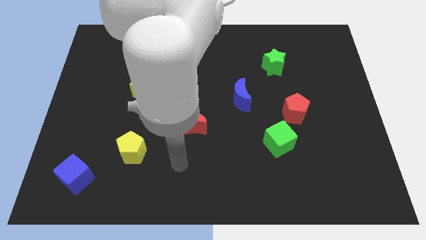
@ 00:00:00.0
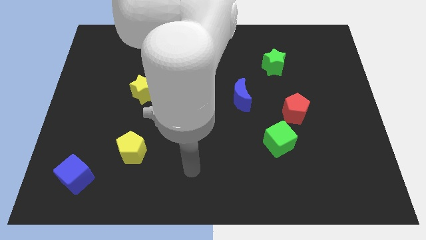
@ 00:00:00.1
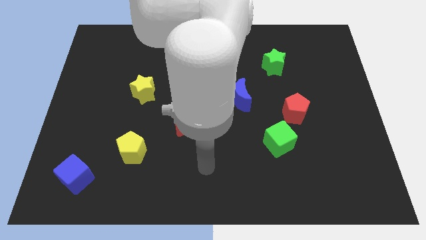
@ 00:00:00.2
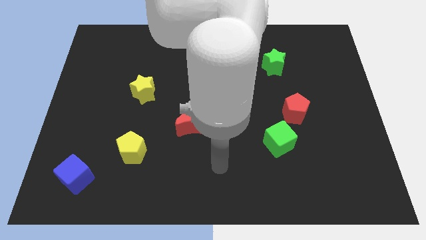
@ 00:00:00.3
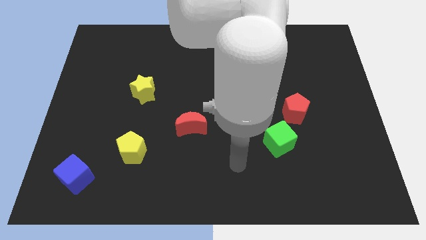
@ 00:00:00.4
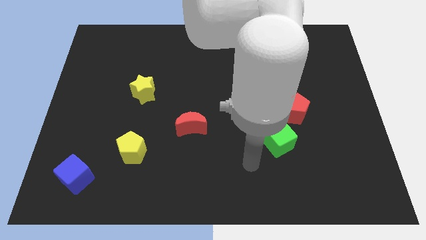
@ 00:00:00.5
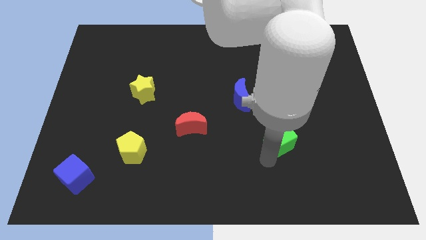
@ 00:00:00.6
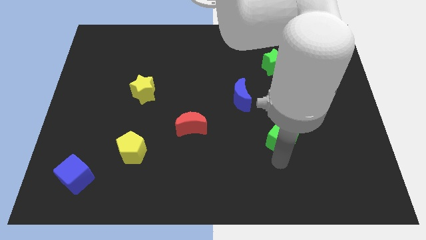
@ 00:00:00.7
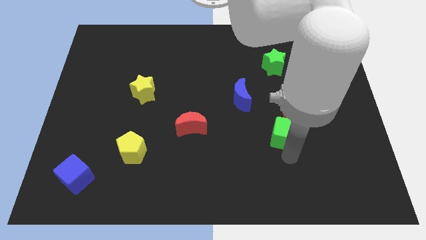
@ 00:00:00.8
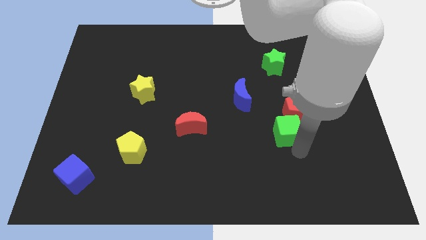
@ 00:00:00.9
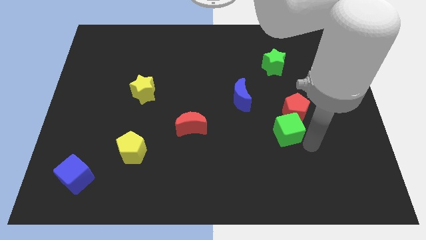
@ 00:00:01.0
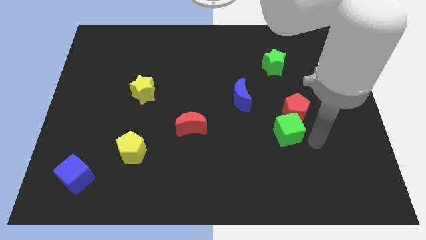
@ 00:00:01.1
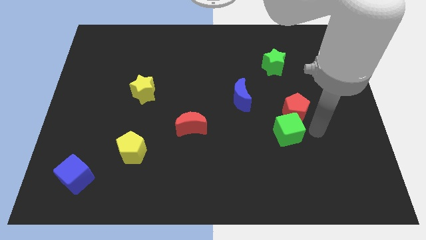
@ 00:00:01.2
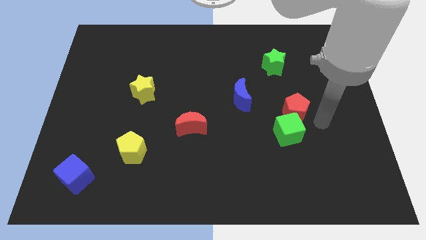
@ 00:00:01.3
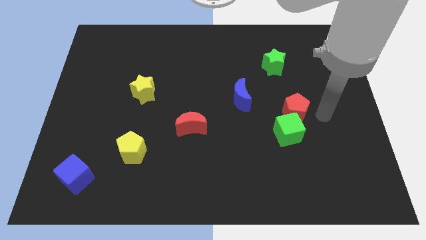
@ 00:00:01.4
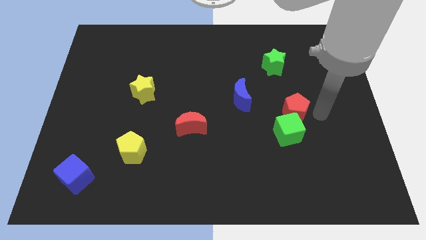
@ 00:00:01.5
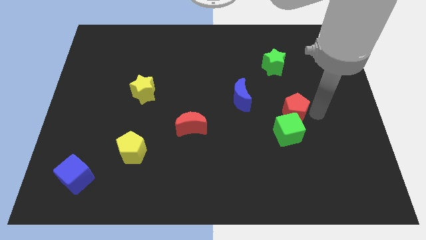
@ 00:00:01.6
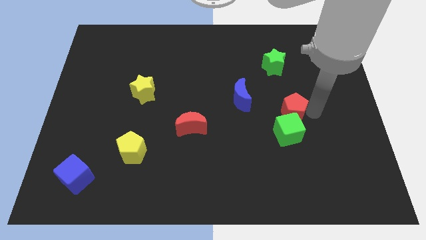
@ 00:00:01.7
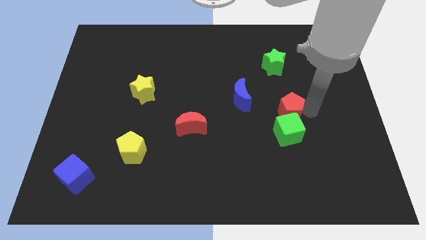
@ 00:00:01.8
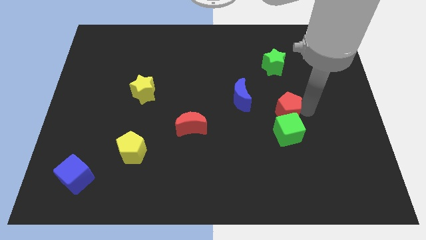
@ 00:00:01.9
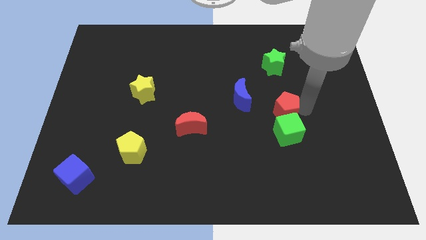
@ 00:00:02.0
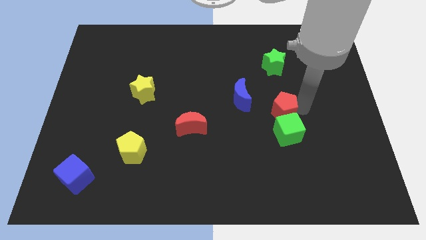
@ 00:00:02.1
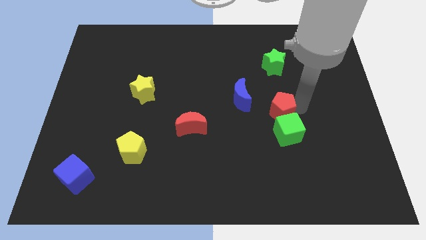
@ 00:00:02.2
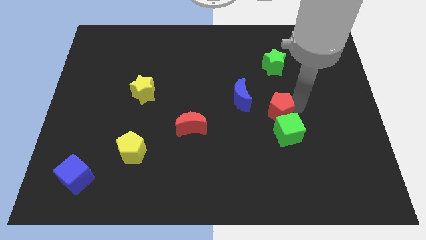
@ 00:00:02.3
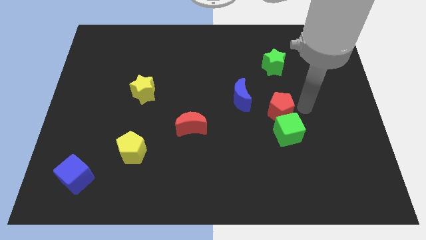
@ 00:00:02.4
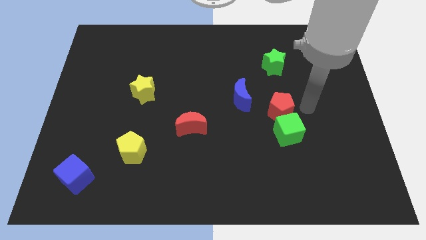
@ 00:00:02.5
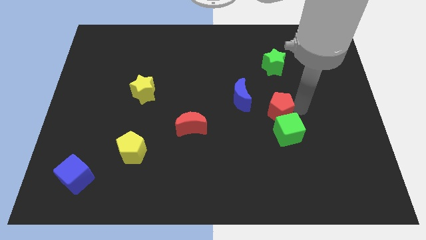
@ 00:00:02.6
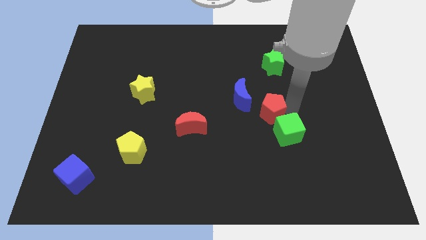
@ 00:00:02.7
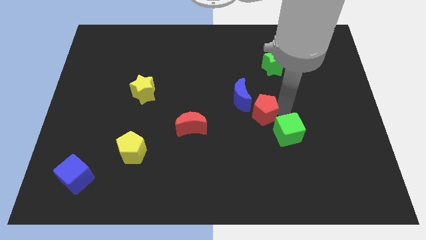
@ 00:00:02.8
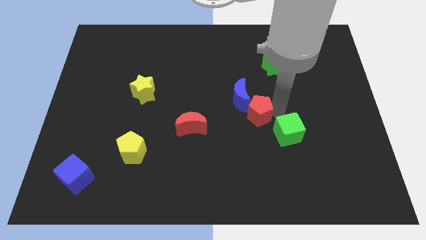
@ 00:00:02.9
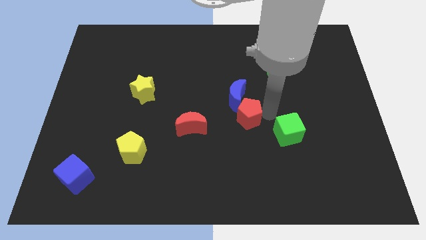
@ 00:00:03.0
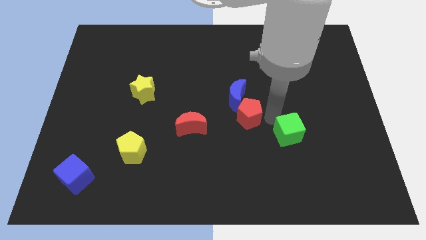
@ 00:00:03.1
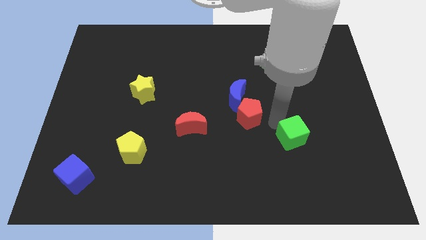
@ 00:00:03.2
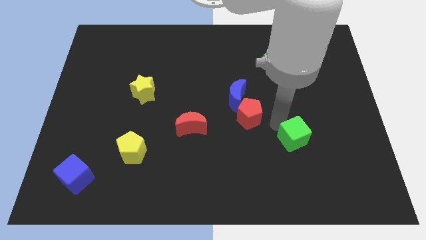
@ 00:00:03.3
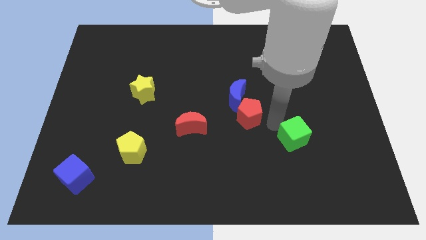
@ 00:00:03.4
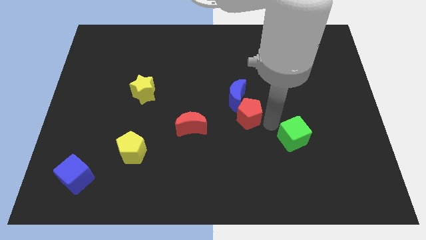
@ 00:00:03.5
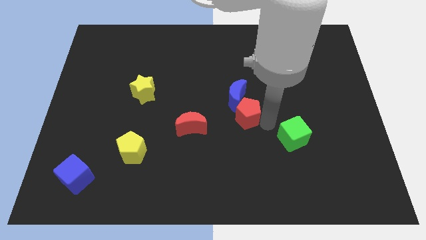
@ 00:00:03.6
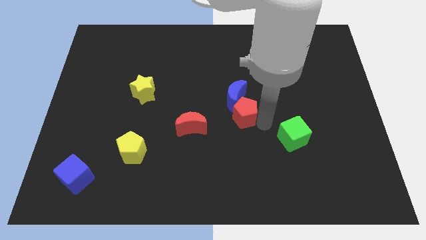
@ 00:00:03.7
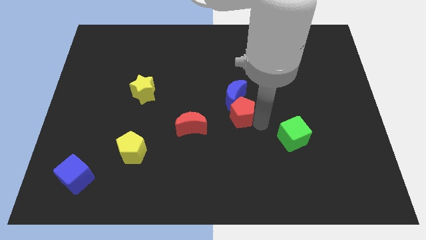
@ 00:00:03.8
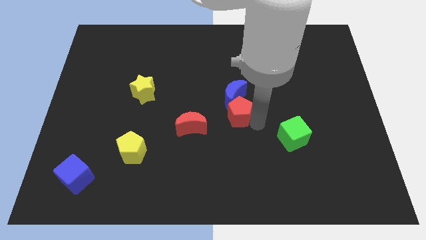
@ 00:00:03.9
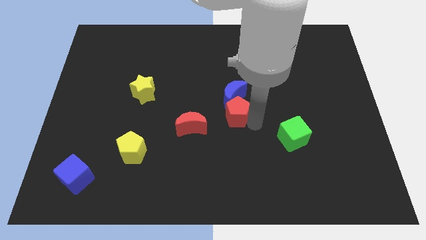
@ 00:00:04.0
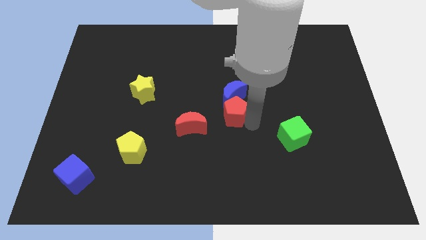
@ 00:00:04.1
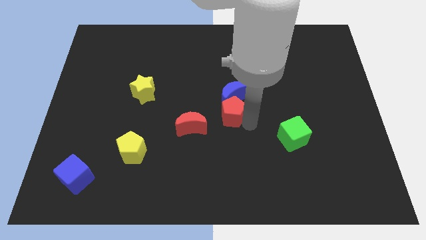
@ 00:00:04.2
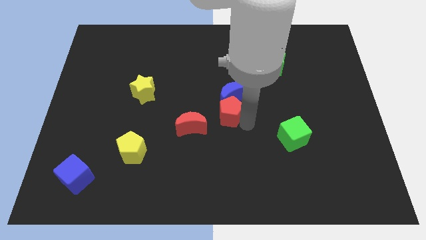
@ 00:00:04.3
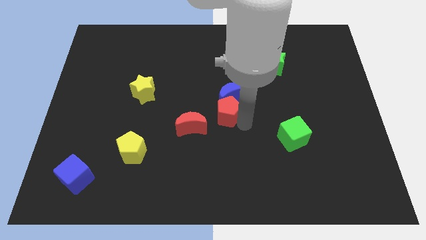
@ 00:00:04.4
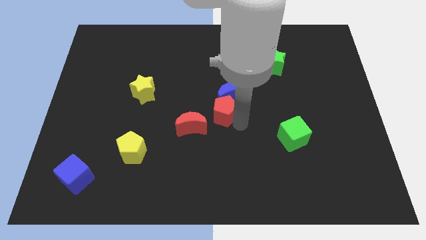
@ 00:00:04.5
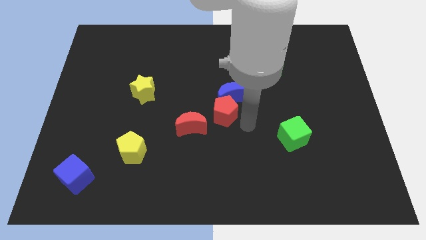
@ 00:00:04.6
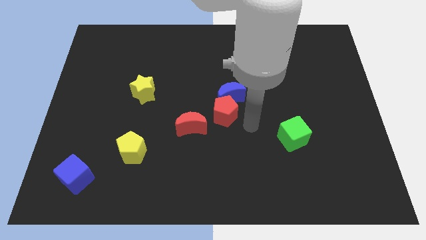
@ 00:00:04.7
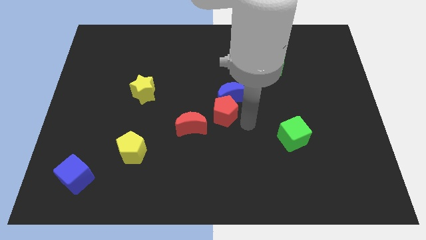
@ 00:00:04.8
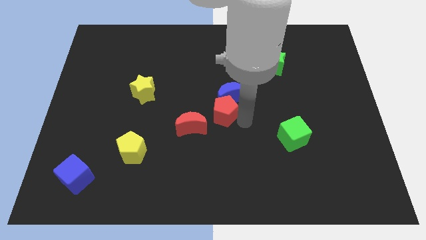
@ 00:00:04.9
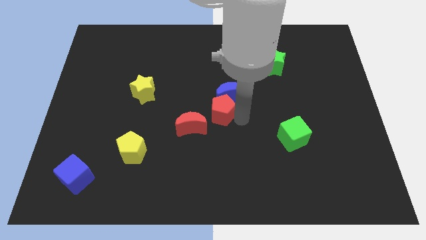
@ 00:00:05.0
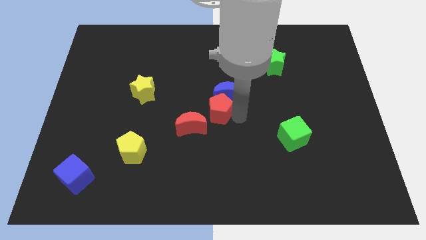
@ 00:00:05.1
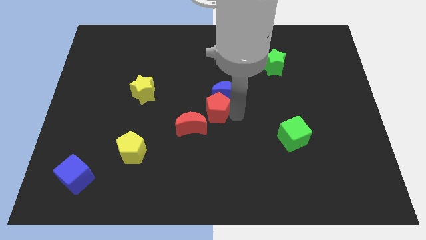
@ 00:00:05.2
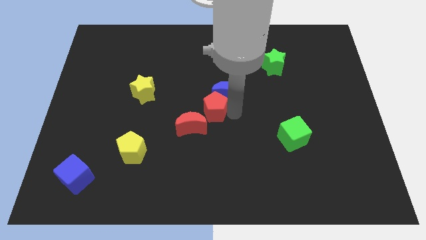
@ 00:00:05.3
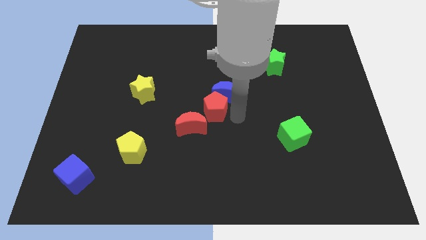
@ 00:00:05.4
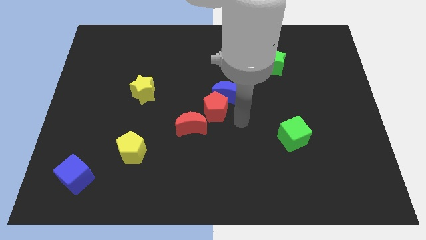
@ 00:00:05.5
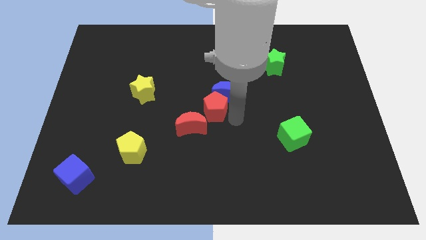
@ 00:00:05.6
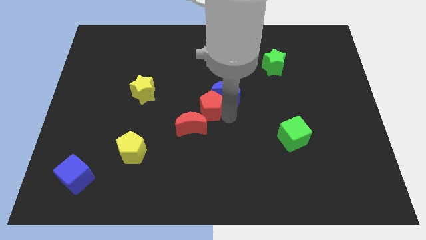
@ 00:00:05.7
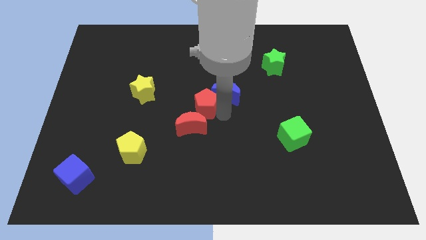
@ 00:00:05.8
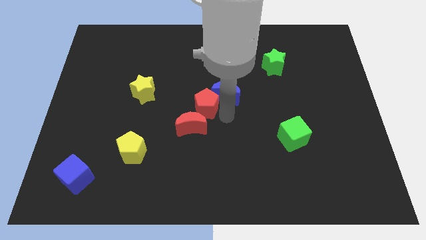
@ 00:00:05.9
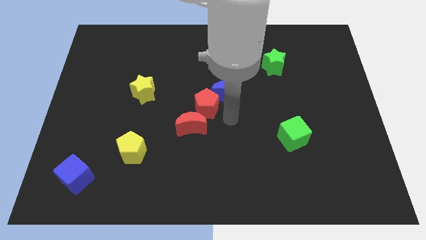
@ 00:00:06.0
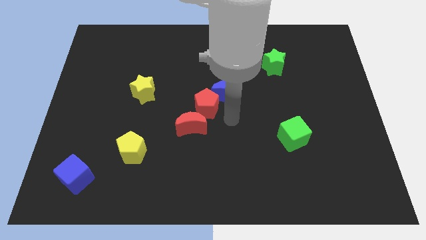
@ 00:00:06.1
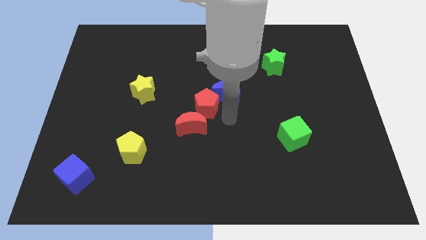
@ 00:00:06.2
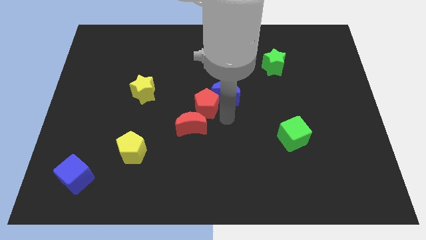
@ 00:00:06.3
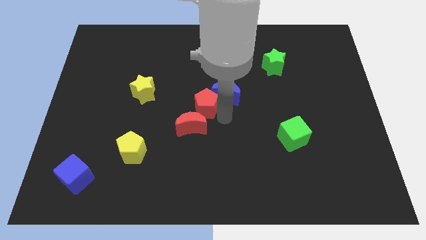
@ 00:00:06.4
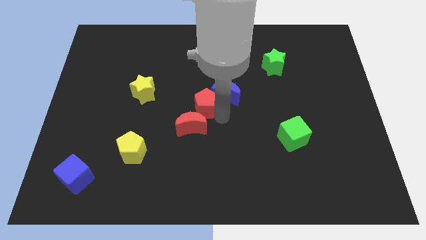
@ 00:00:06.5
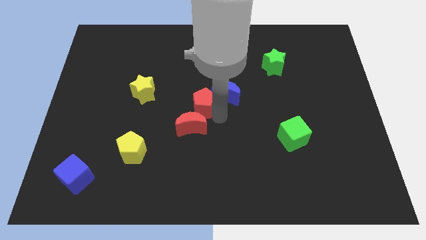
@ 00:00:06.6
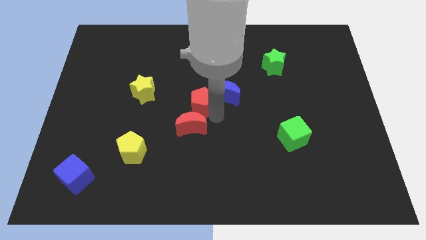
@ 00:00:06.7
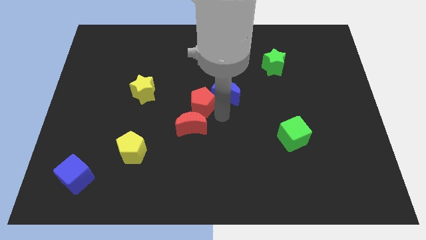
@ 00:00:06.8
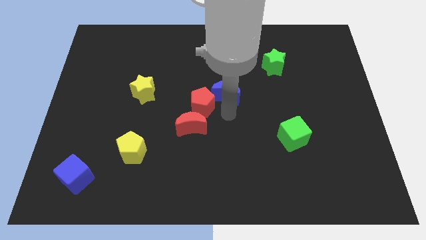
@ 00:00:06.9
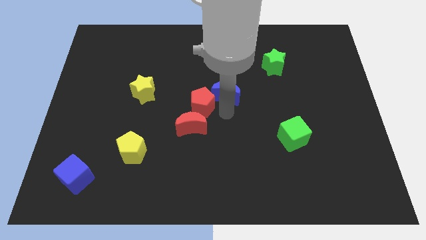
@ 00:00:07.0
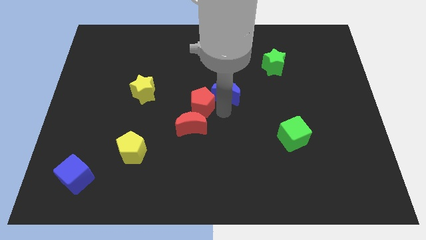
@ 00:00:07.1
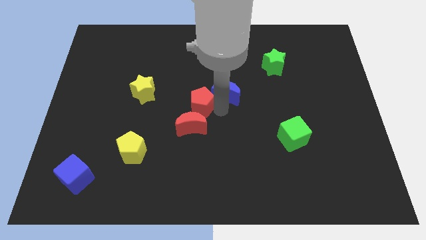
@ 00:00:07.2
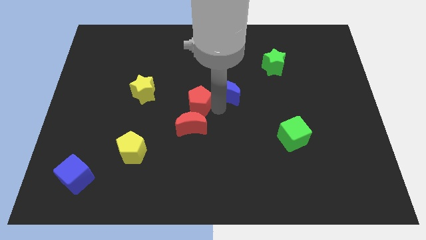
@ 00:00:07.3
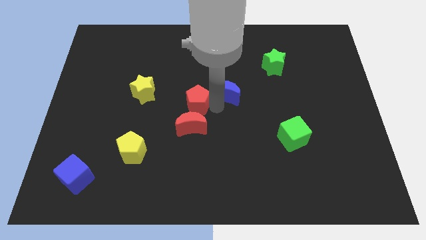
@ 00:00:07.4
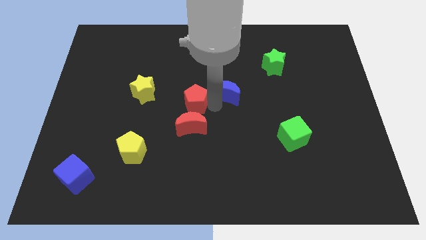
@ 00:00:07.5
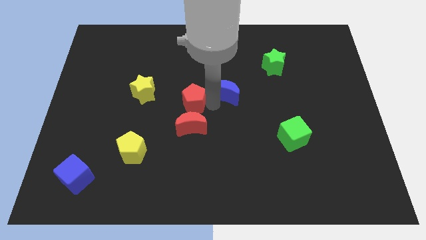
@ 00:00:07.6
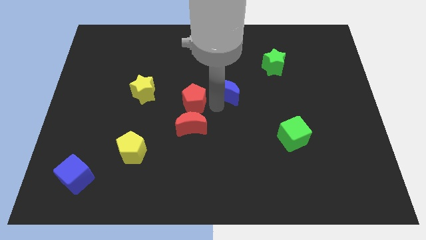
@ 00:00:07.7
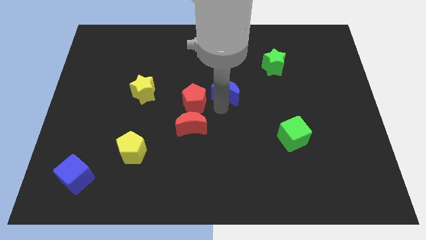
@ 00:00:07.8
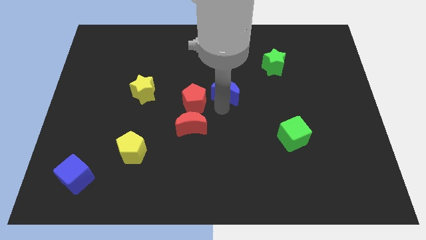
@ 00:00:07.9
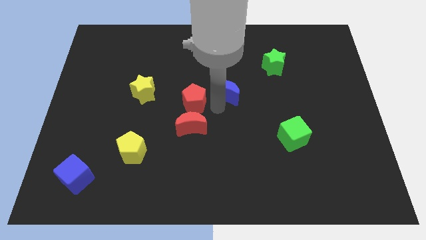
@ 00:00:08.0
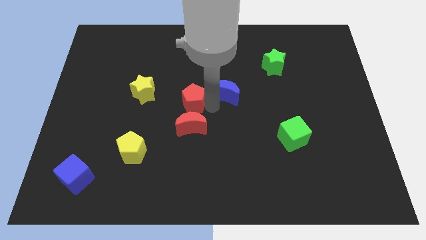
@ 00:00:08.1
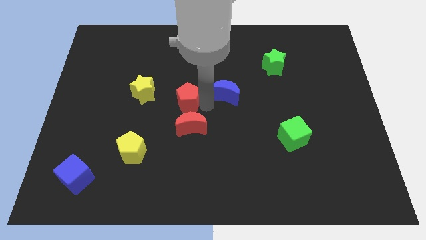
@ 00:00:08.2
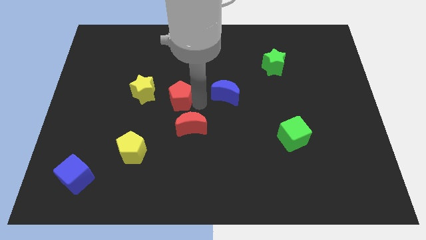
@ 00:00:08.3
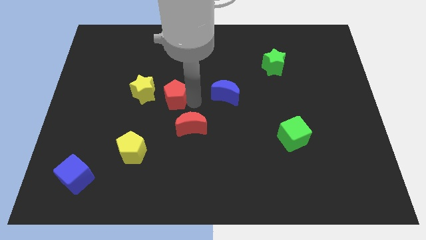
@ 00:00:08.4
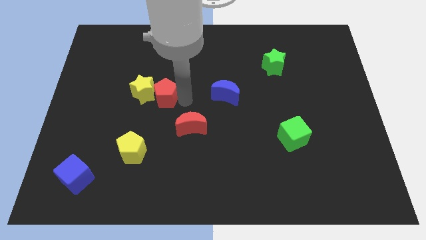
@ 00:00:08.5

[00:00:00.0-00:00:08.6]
put the red pentagon towards the yellow star
